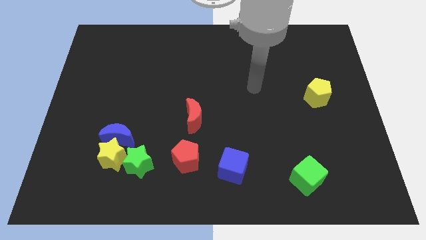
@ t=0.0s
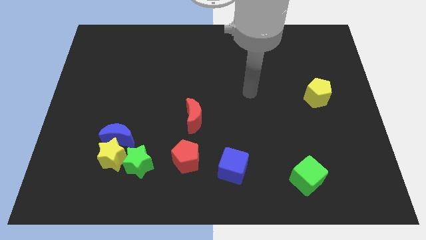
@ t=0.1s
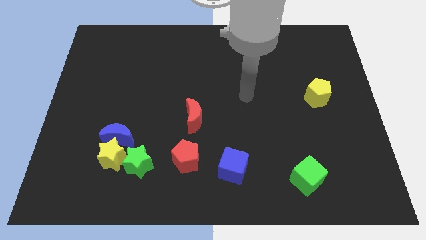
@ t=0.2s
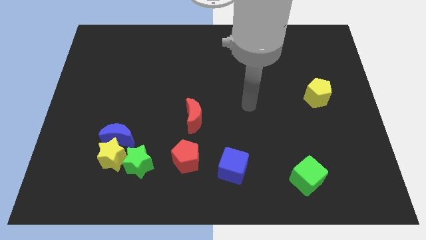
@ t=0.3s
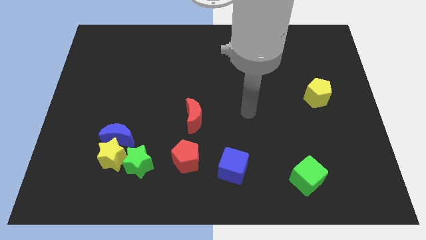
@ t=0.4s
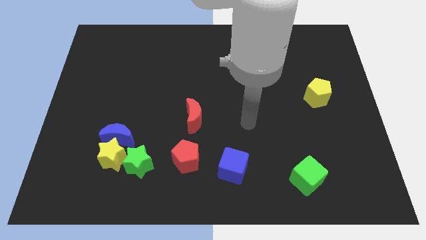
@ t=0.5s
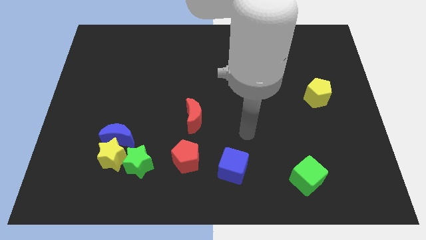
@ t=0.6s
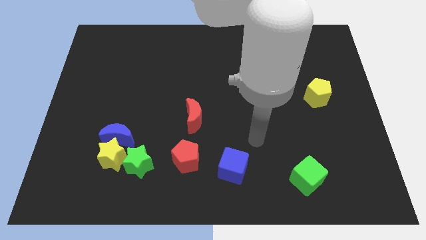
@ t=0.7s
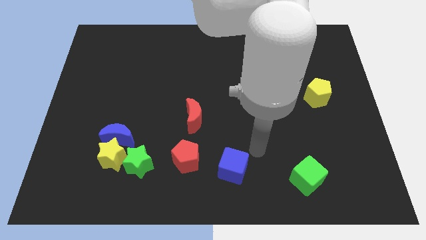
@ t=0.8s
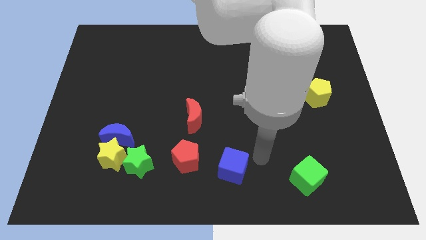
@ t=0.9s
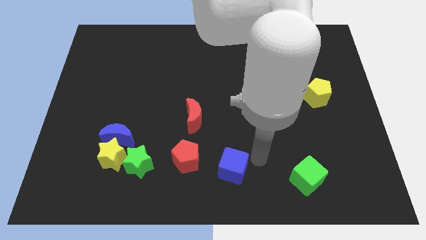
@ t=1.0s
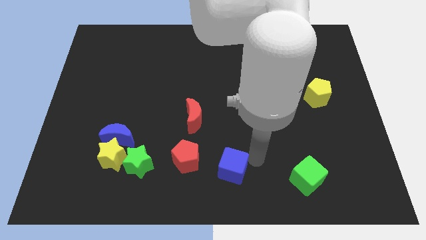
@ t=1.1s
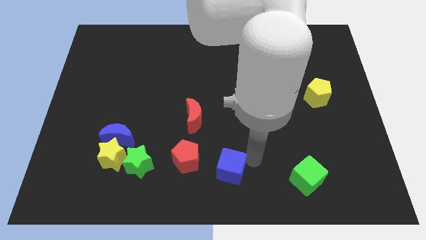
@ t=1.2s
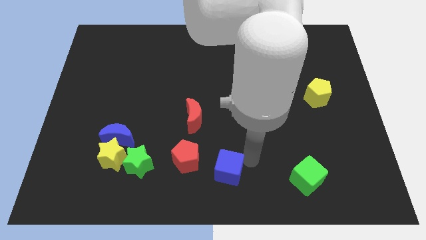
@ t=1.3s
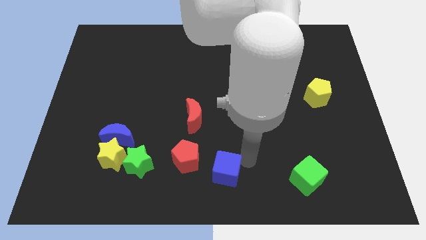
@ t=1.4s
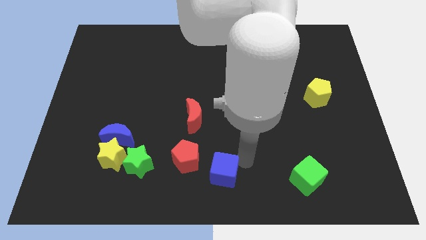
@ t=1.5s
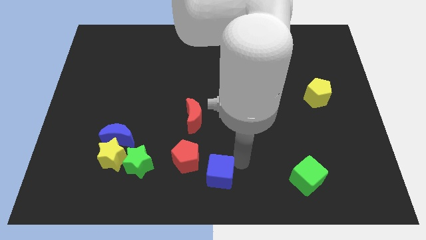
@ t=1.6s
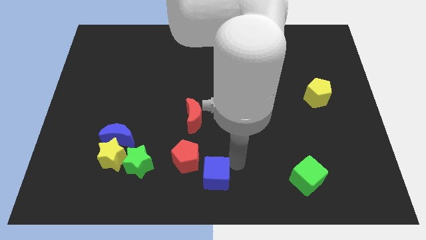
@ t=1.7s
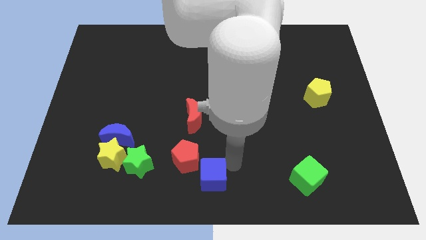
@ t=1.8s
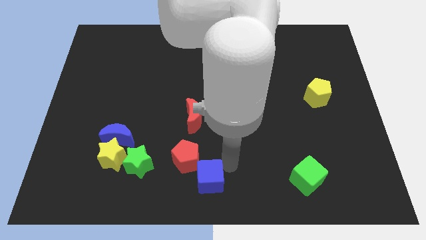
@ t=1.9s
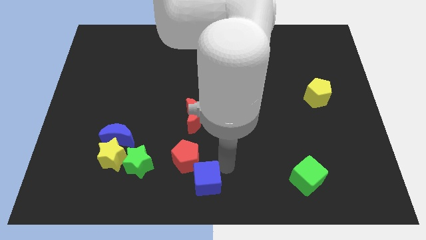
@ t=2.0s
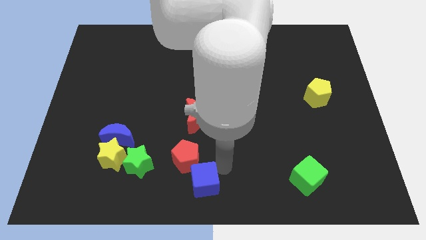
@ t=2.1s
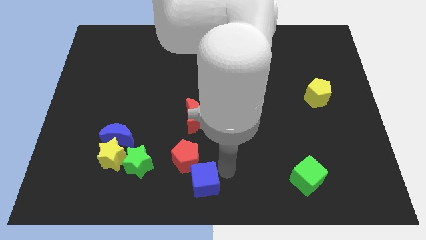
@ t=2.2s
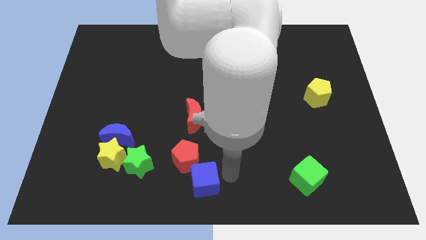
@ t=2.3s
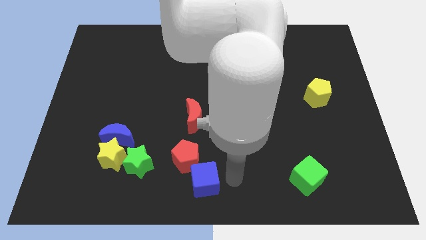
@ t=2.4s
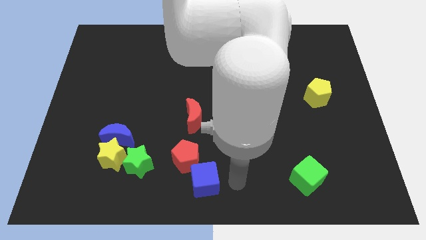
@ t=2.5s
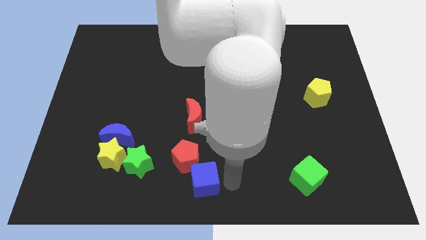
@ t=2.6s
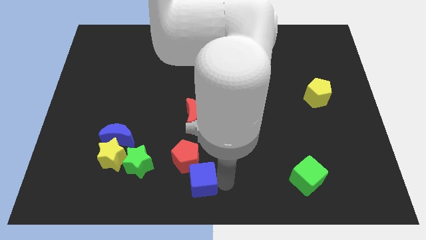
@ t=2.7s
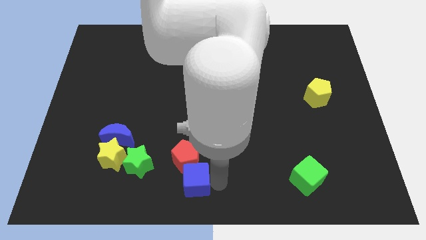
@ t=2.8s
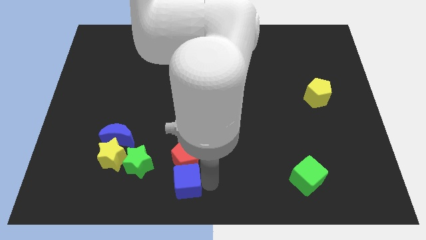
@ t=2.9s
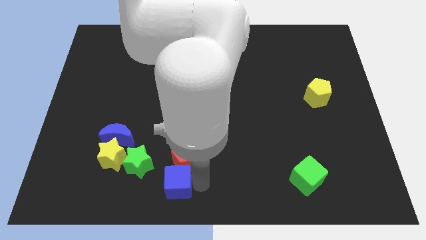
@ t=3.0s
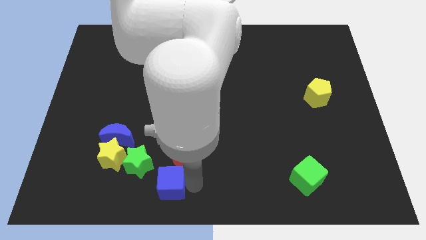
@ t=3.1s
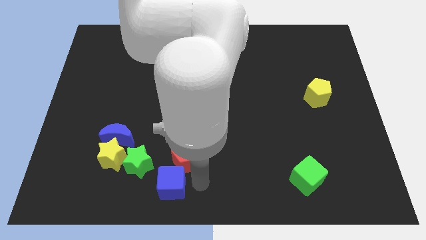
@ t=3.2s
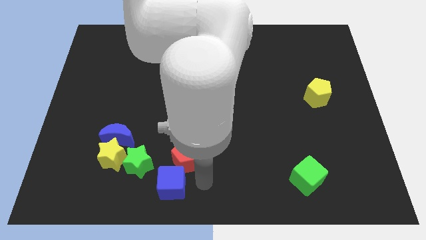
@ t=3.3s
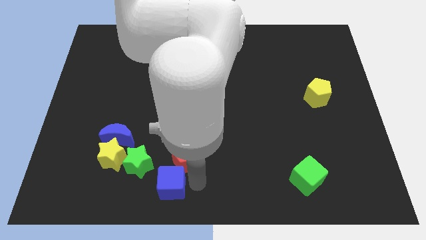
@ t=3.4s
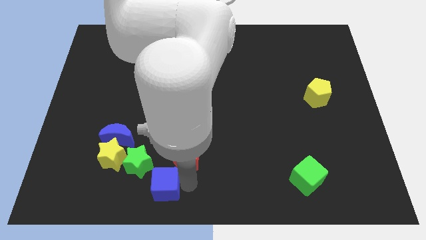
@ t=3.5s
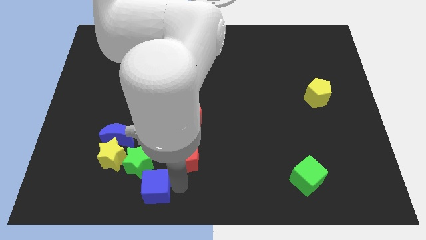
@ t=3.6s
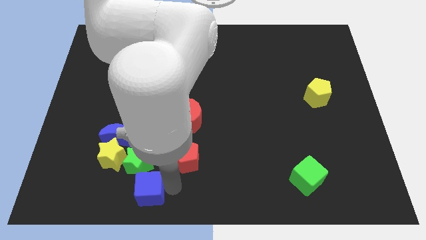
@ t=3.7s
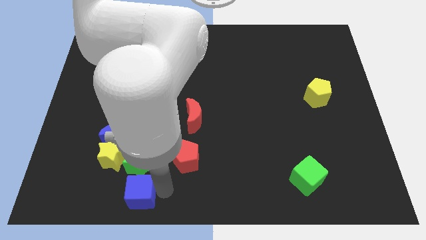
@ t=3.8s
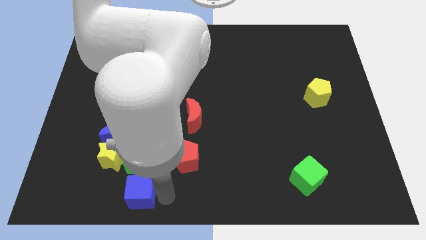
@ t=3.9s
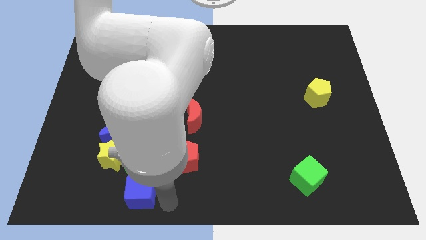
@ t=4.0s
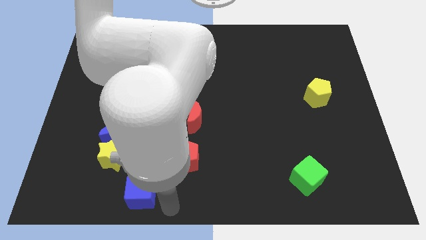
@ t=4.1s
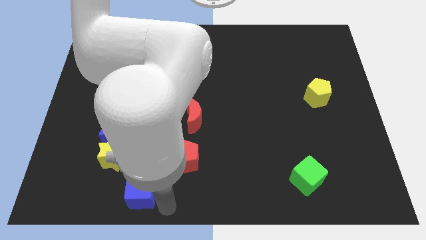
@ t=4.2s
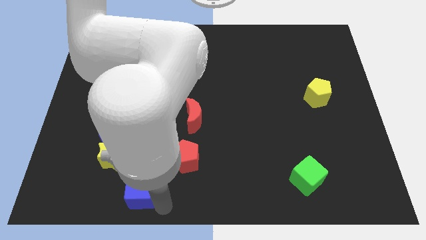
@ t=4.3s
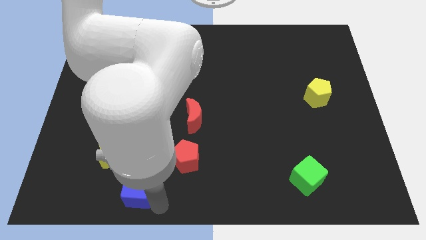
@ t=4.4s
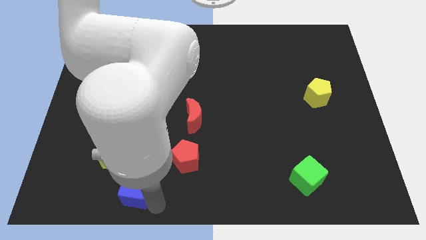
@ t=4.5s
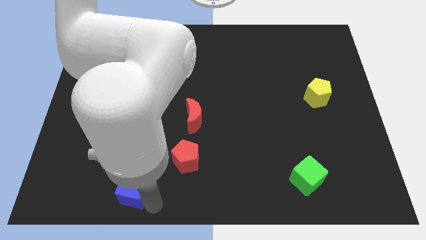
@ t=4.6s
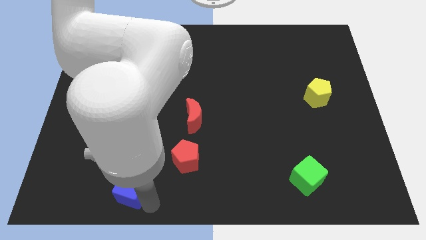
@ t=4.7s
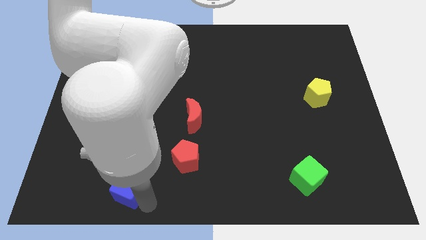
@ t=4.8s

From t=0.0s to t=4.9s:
move the blue cube to the left

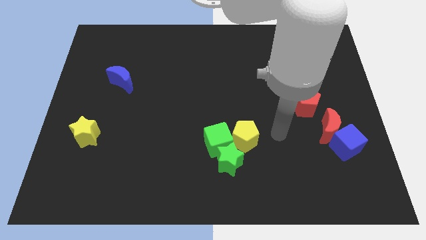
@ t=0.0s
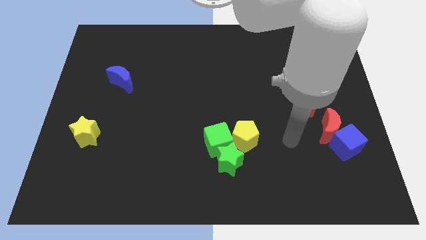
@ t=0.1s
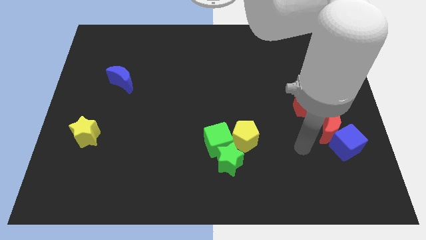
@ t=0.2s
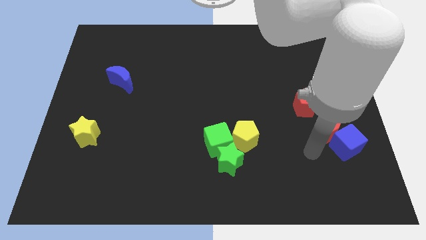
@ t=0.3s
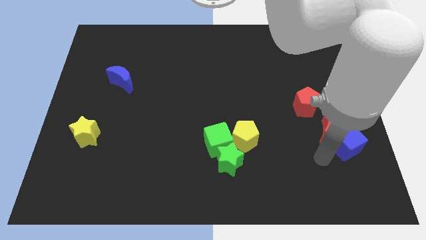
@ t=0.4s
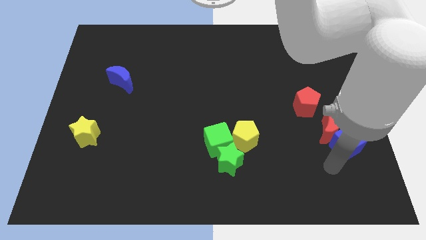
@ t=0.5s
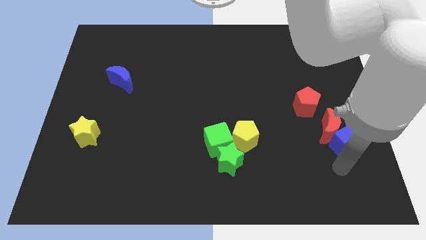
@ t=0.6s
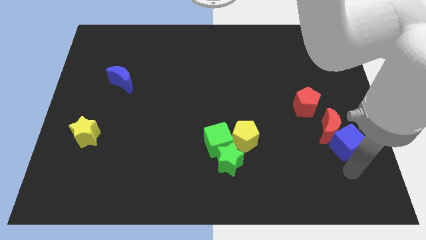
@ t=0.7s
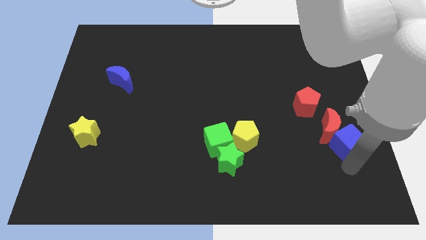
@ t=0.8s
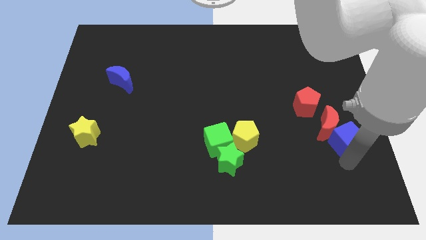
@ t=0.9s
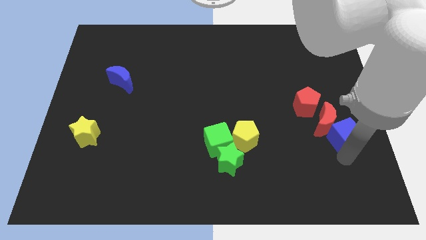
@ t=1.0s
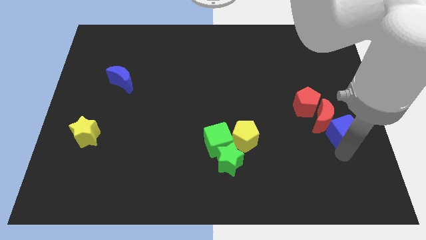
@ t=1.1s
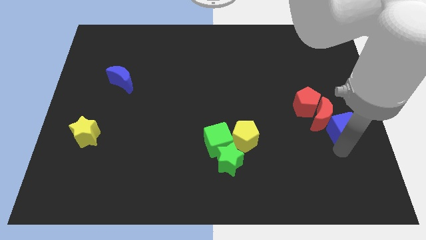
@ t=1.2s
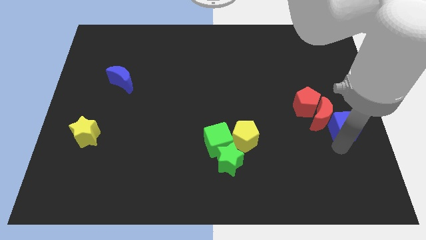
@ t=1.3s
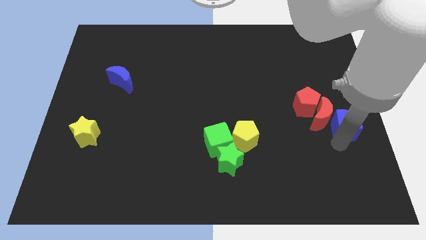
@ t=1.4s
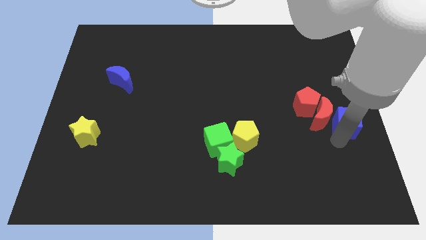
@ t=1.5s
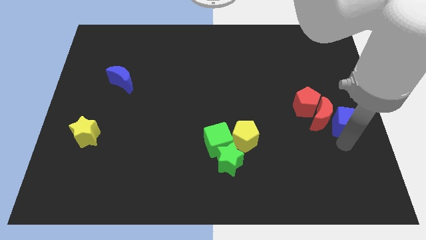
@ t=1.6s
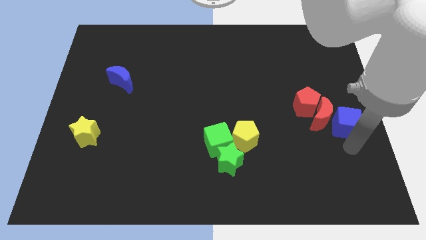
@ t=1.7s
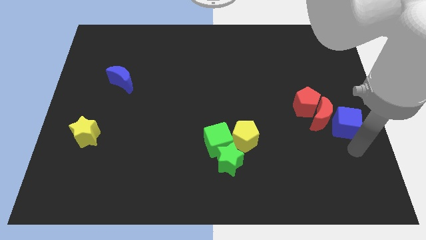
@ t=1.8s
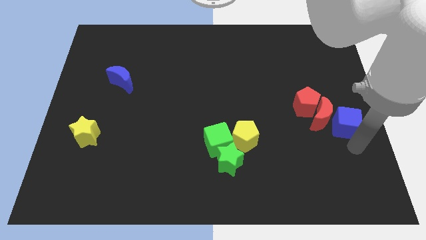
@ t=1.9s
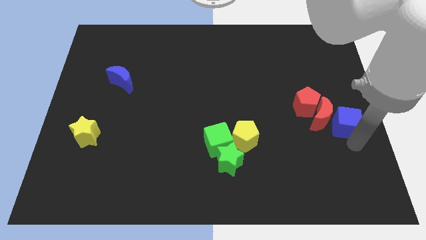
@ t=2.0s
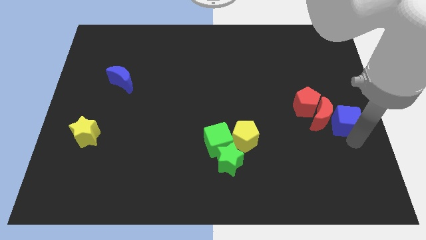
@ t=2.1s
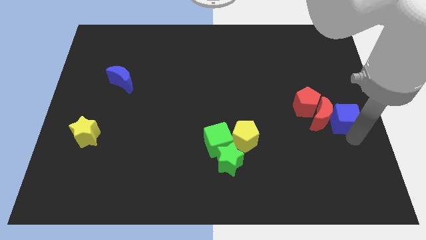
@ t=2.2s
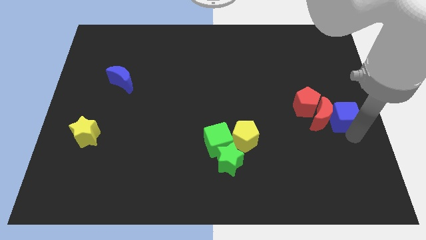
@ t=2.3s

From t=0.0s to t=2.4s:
move the blue cube somewhat up

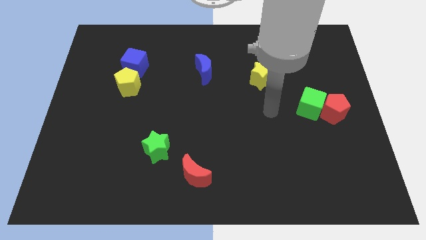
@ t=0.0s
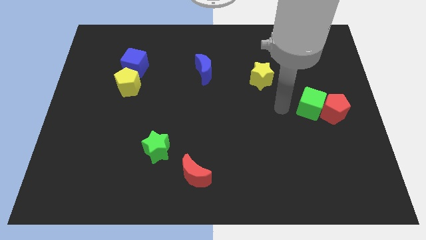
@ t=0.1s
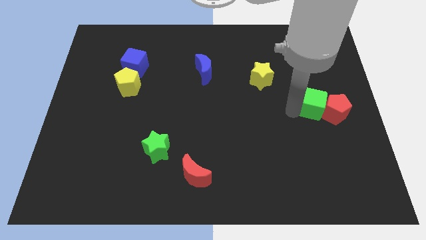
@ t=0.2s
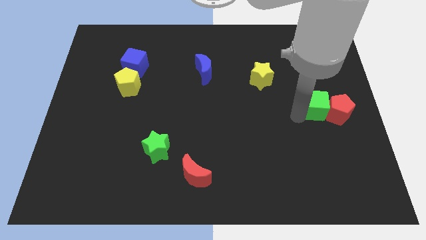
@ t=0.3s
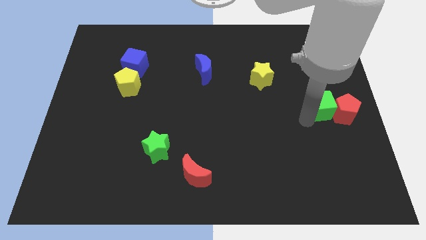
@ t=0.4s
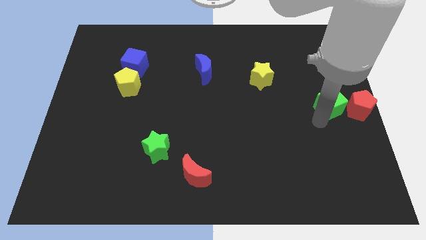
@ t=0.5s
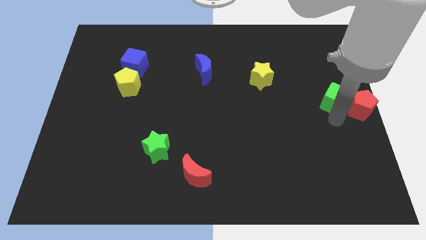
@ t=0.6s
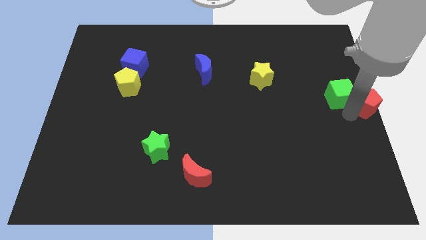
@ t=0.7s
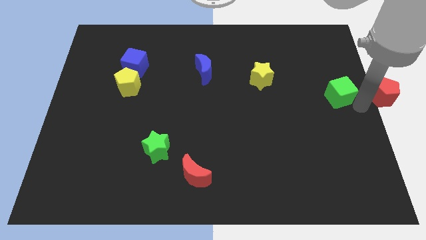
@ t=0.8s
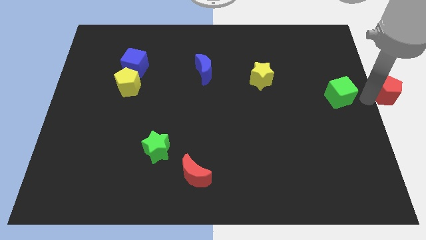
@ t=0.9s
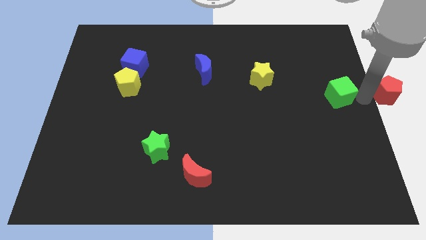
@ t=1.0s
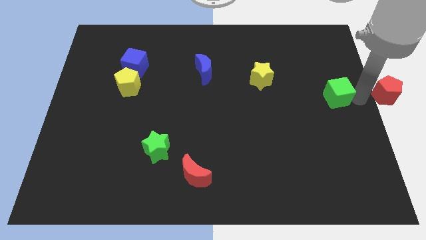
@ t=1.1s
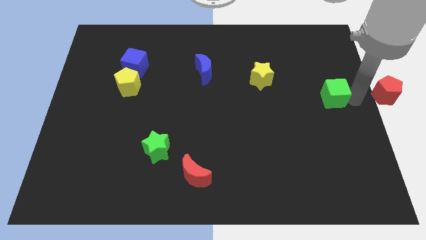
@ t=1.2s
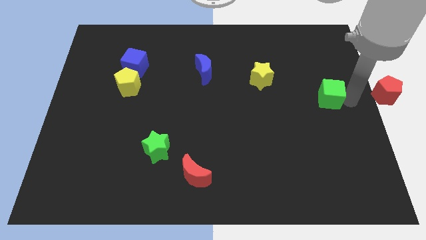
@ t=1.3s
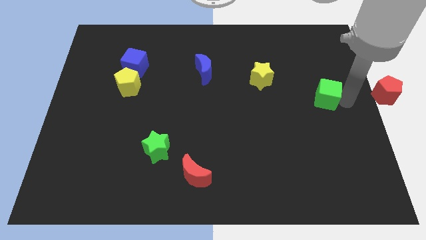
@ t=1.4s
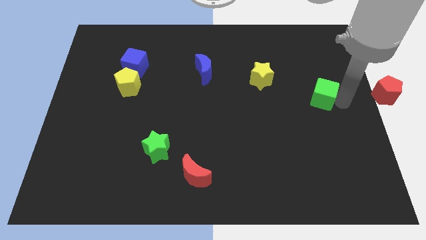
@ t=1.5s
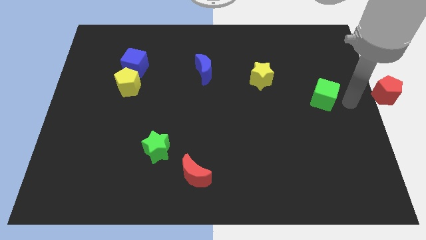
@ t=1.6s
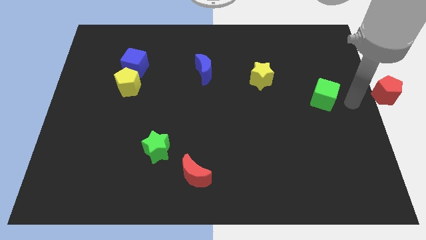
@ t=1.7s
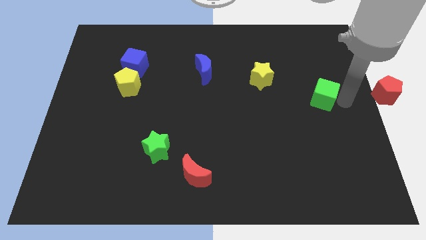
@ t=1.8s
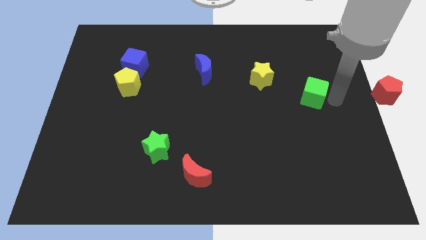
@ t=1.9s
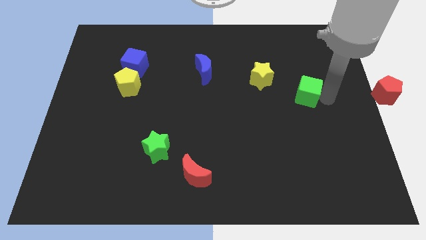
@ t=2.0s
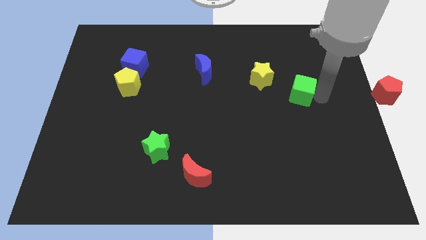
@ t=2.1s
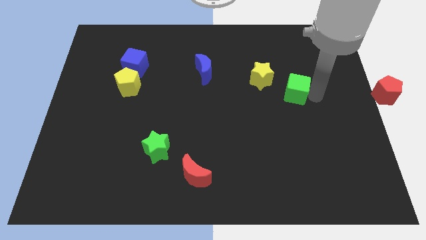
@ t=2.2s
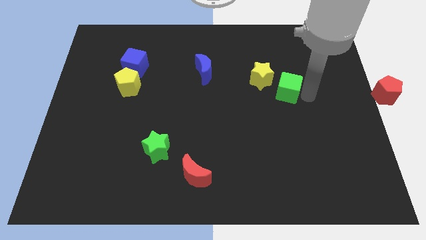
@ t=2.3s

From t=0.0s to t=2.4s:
slightly move the green cube up and left diagonally
